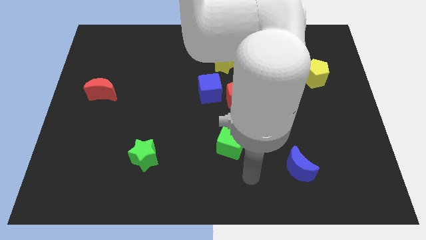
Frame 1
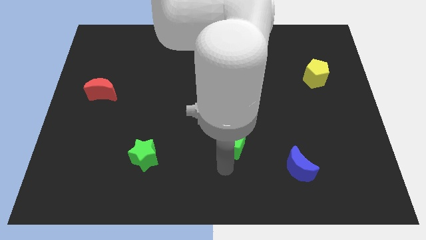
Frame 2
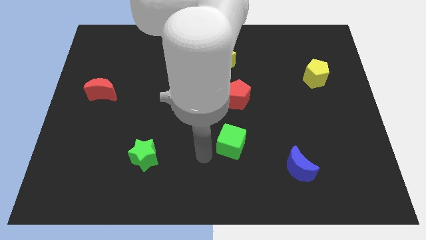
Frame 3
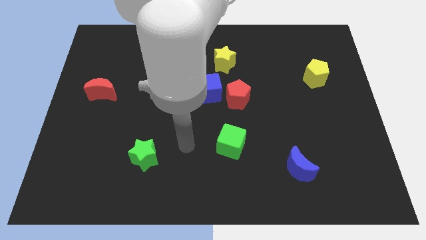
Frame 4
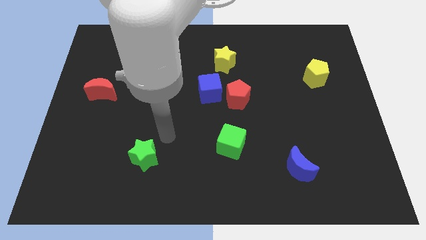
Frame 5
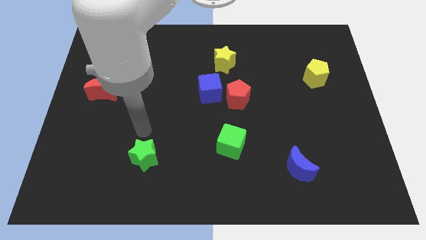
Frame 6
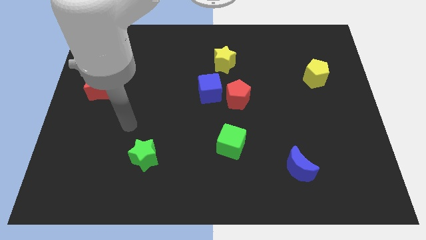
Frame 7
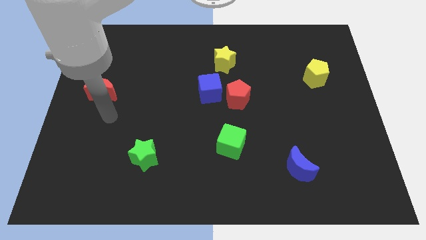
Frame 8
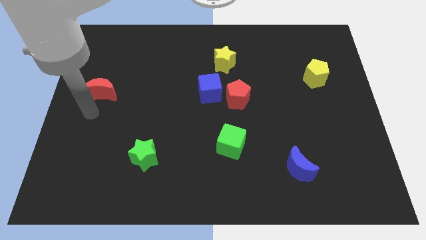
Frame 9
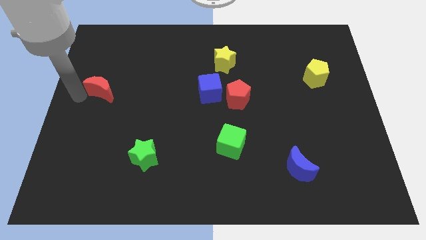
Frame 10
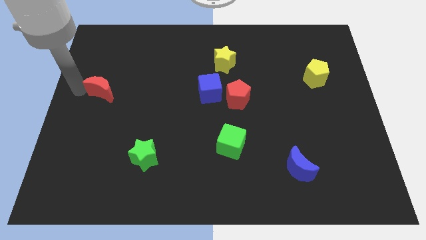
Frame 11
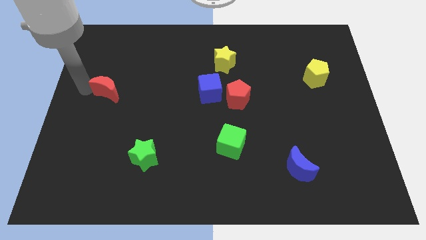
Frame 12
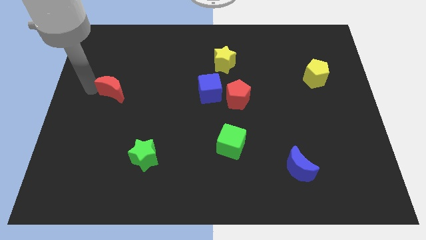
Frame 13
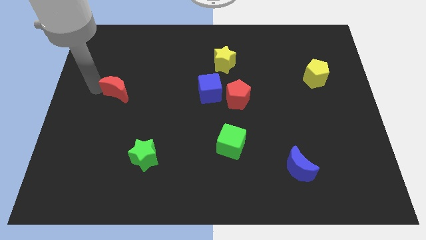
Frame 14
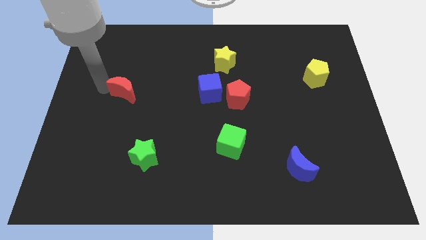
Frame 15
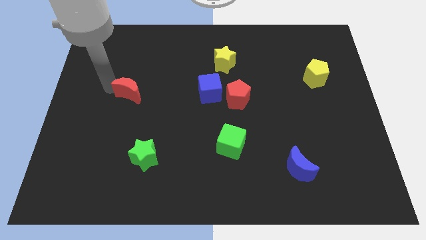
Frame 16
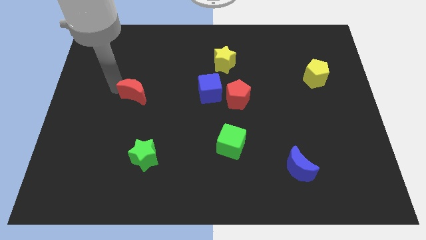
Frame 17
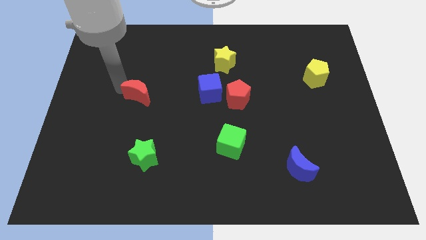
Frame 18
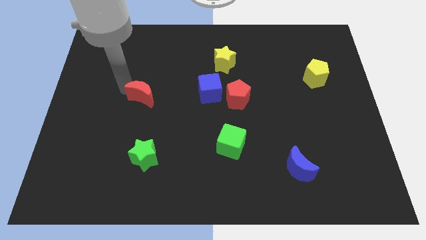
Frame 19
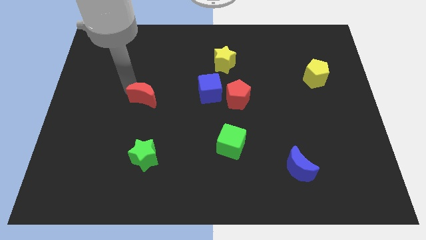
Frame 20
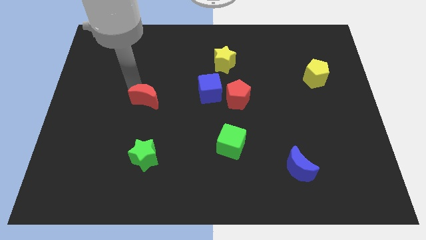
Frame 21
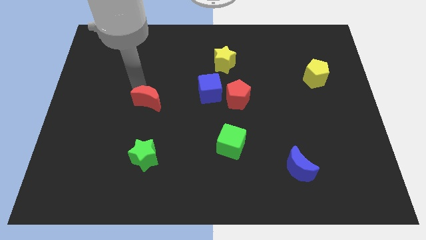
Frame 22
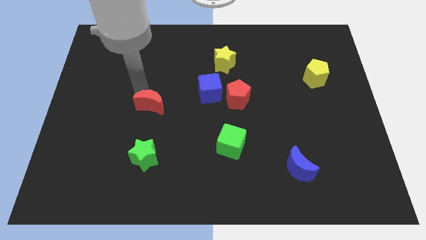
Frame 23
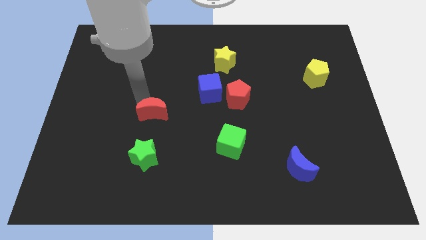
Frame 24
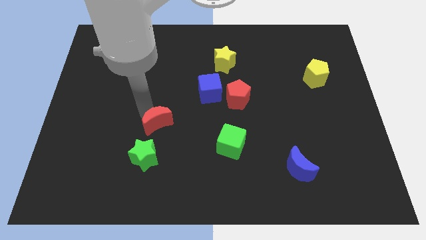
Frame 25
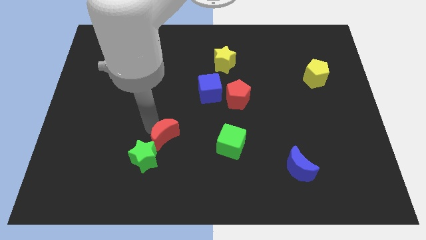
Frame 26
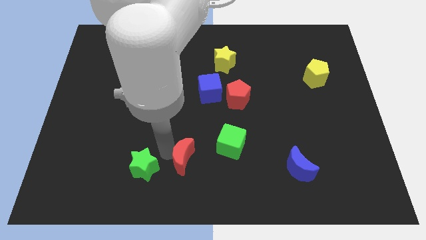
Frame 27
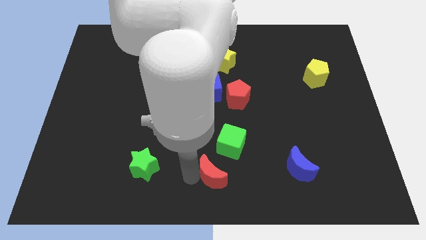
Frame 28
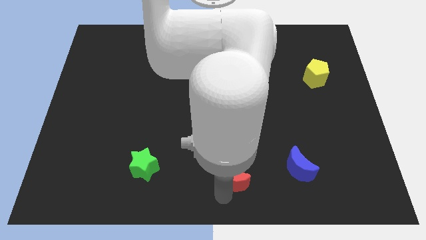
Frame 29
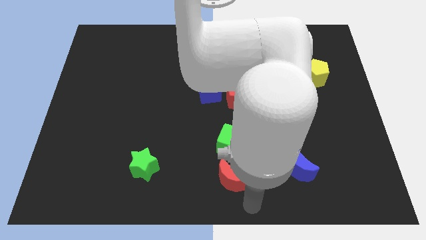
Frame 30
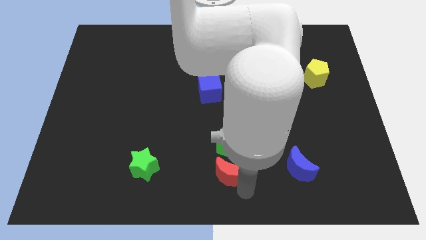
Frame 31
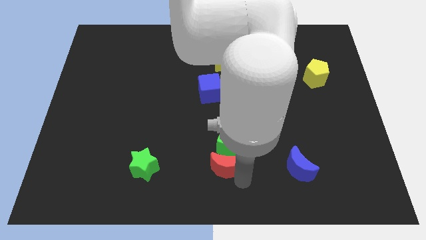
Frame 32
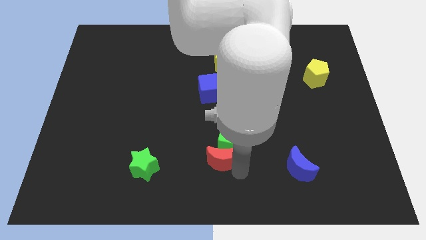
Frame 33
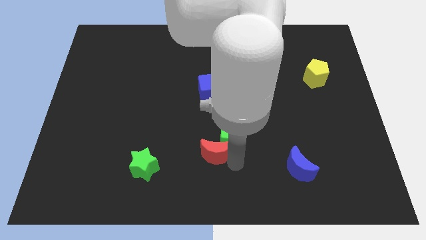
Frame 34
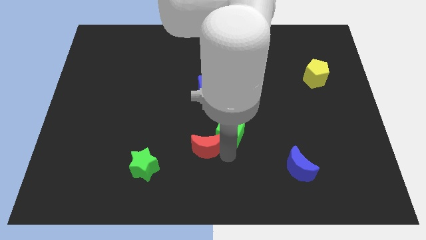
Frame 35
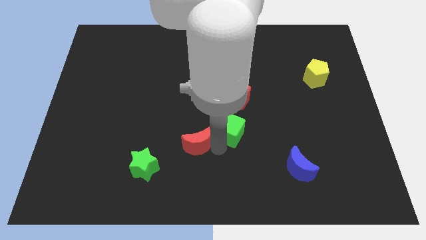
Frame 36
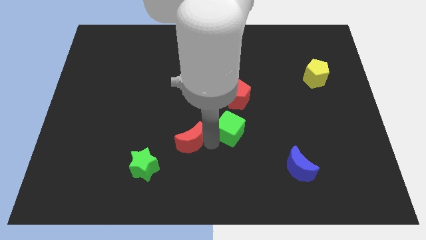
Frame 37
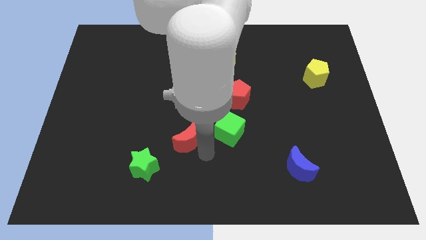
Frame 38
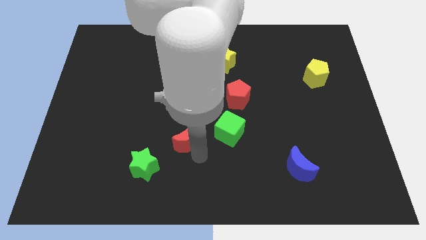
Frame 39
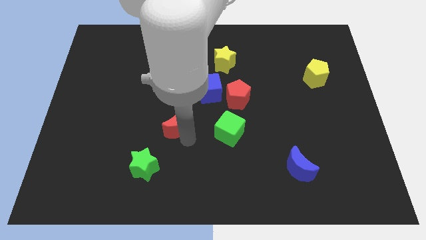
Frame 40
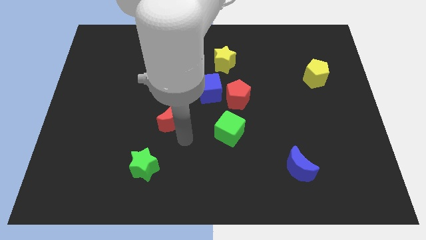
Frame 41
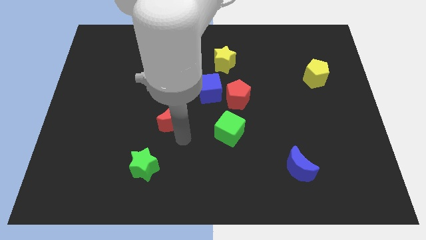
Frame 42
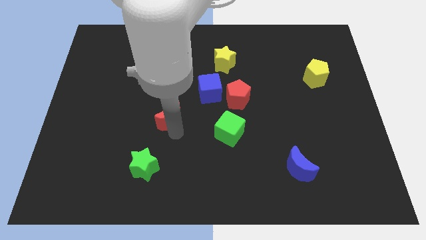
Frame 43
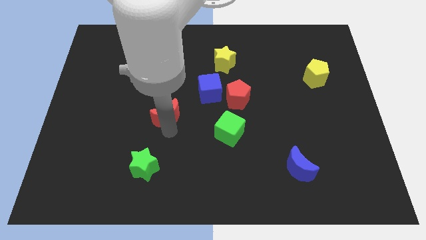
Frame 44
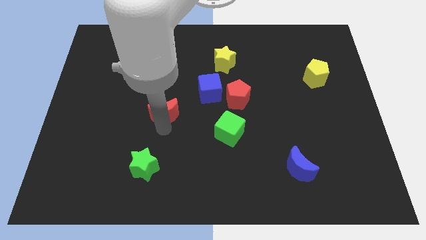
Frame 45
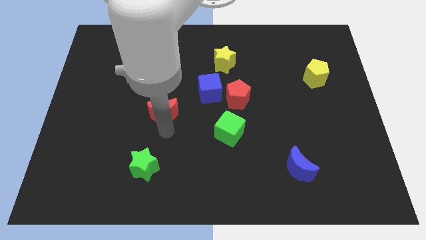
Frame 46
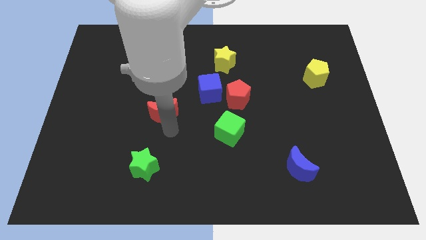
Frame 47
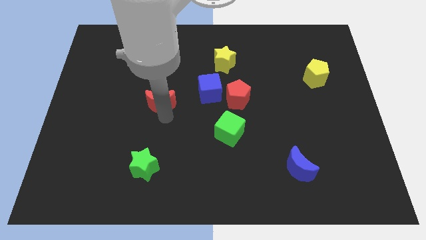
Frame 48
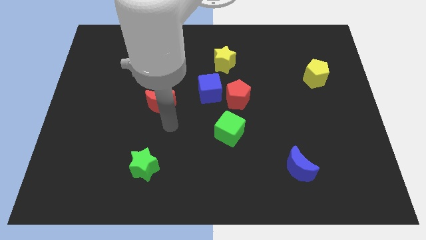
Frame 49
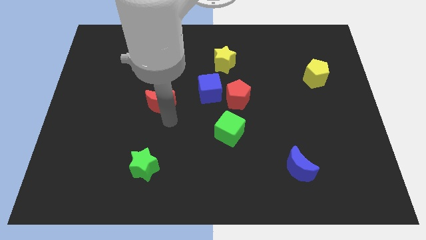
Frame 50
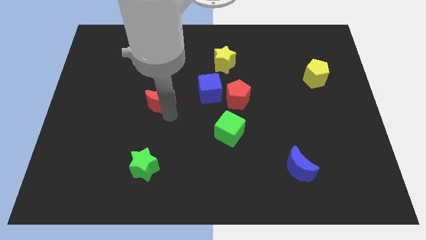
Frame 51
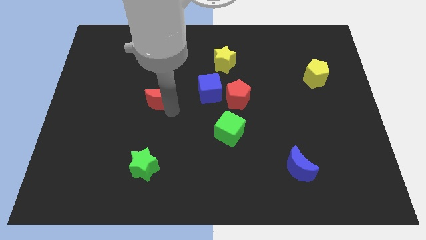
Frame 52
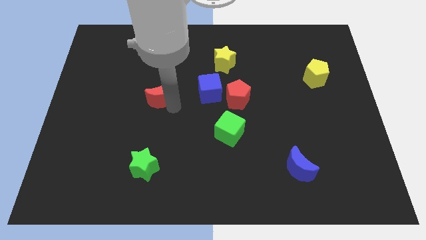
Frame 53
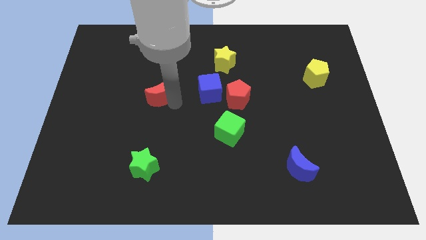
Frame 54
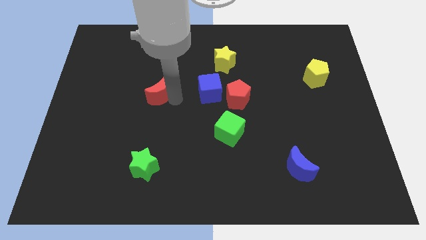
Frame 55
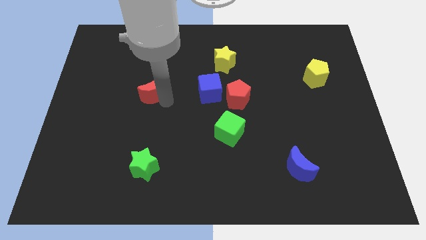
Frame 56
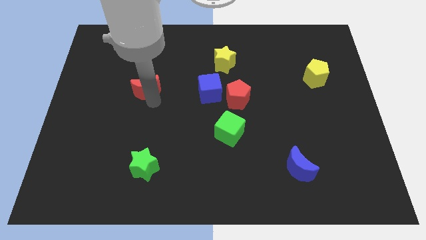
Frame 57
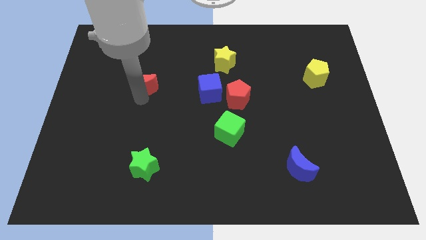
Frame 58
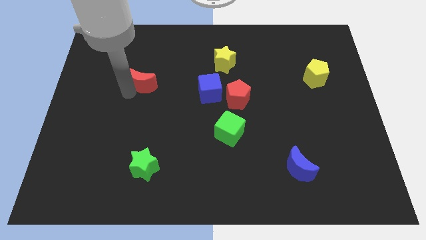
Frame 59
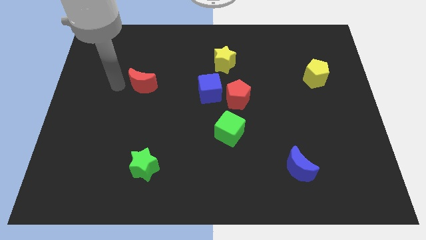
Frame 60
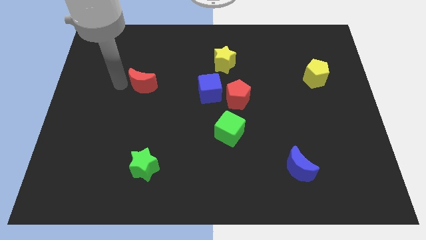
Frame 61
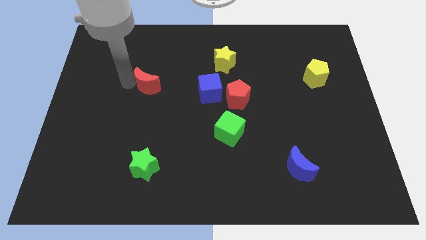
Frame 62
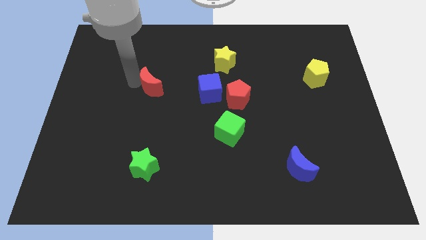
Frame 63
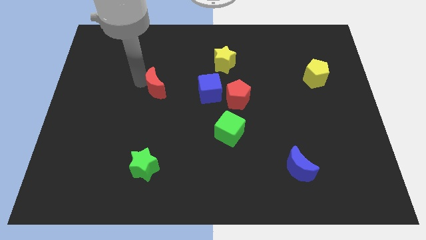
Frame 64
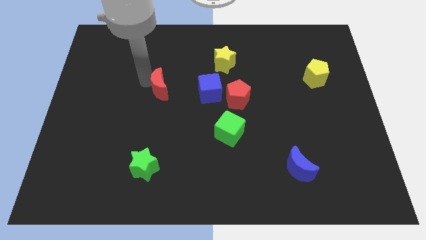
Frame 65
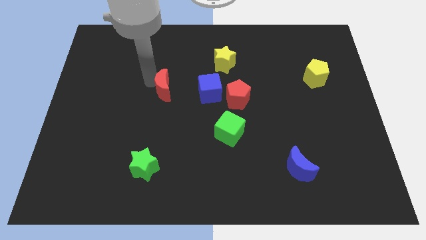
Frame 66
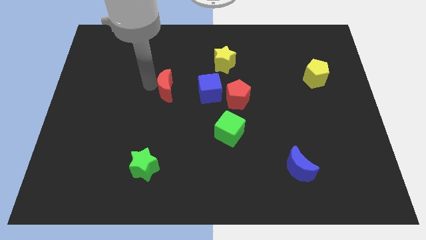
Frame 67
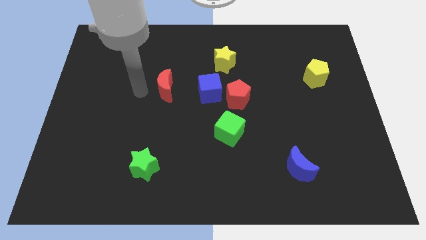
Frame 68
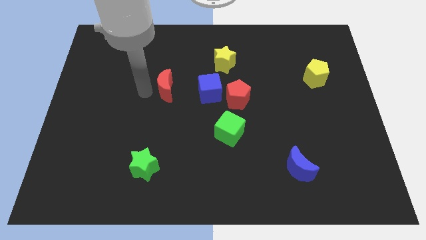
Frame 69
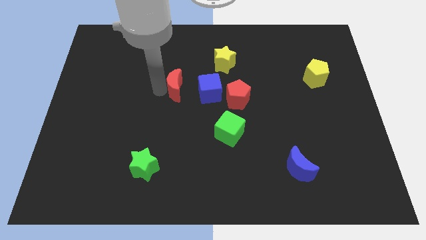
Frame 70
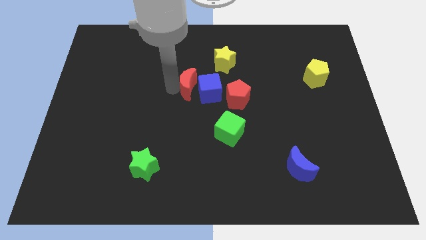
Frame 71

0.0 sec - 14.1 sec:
push the red moon close to the blue cube
